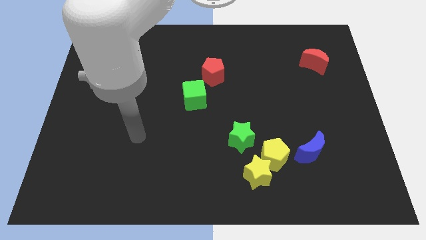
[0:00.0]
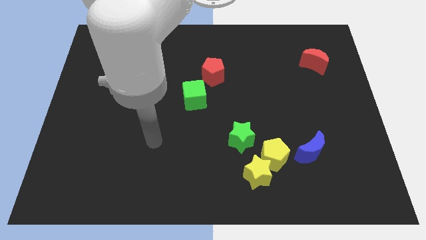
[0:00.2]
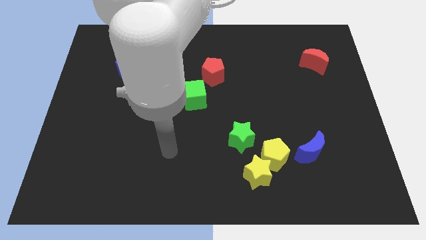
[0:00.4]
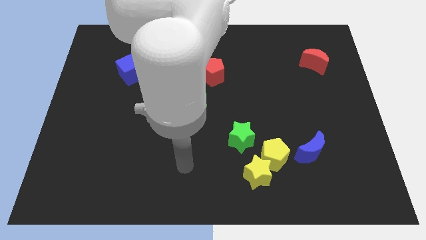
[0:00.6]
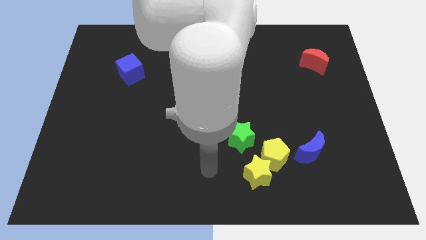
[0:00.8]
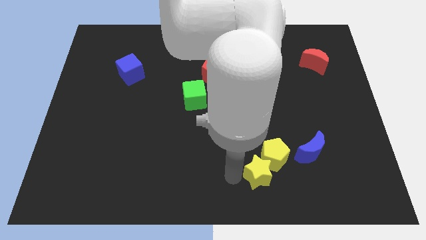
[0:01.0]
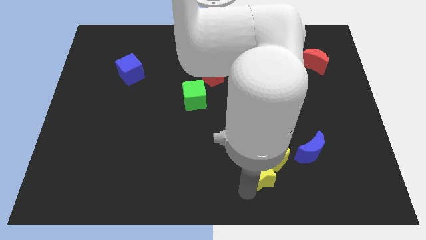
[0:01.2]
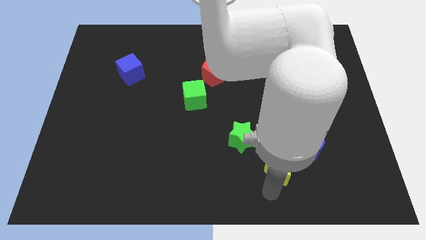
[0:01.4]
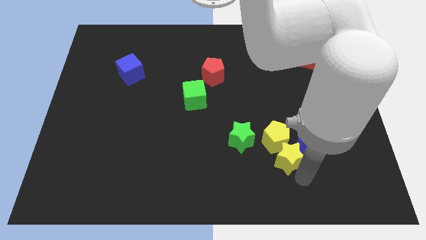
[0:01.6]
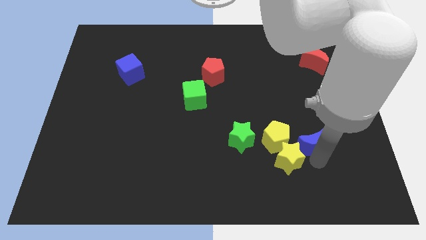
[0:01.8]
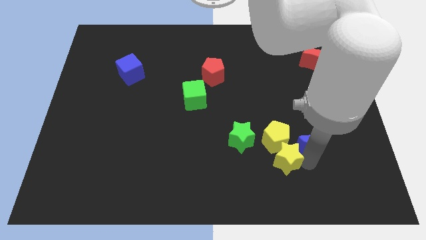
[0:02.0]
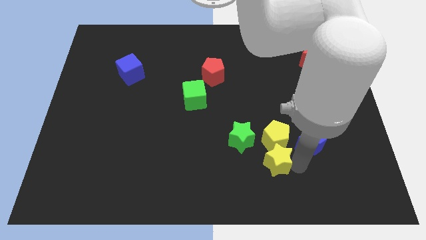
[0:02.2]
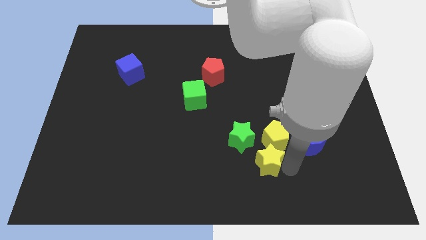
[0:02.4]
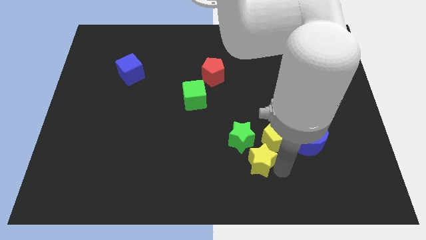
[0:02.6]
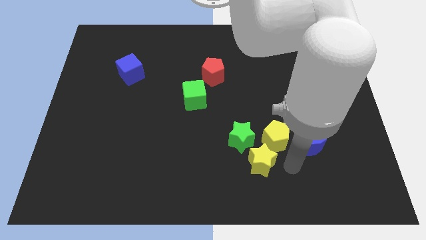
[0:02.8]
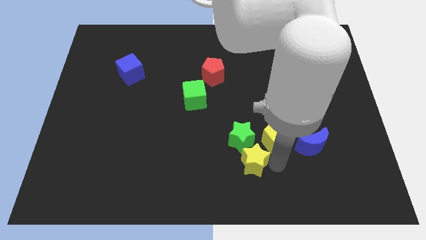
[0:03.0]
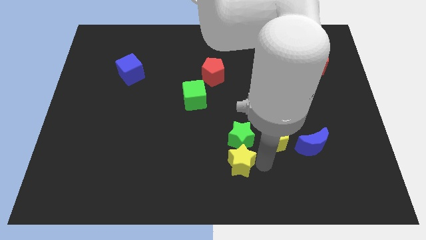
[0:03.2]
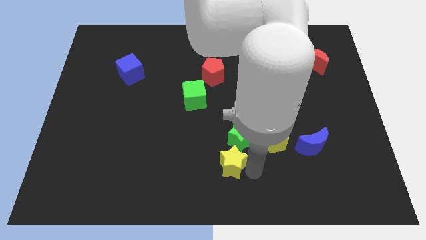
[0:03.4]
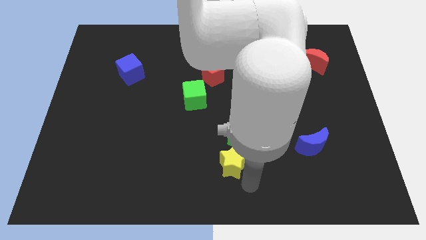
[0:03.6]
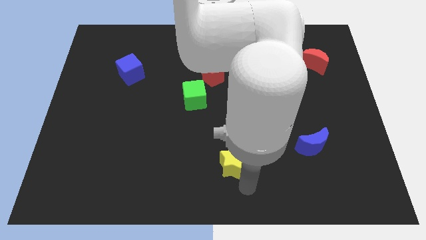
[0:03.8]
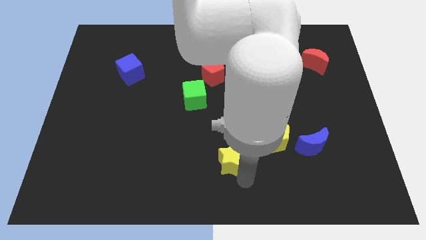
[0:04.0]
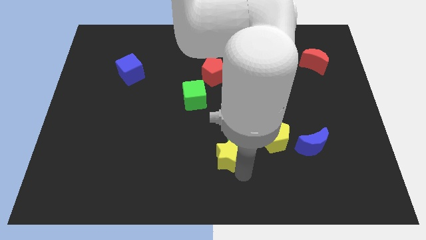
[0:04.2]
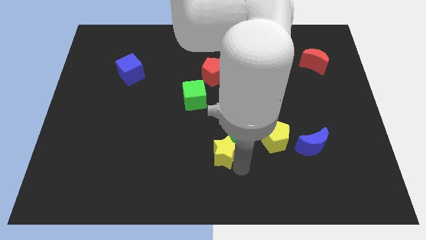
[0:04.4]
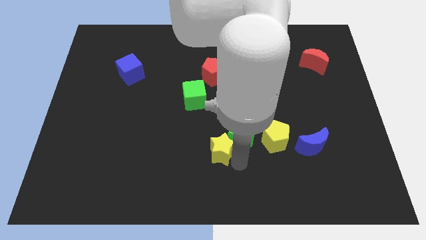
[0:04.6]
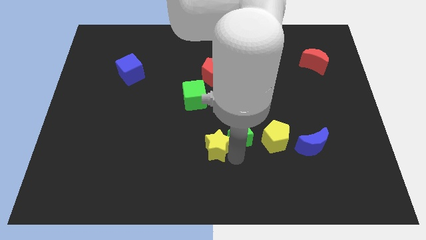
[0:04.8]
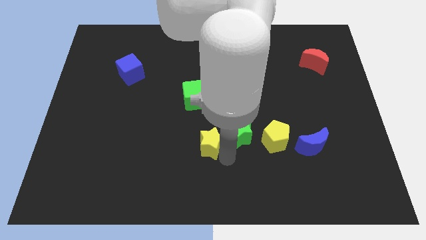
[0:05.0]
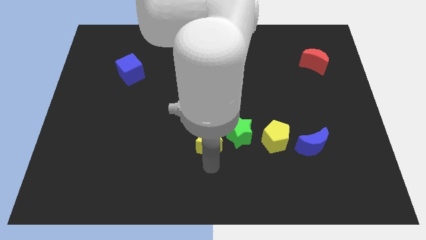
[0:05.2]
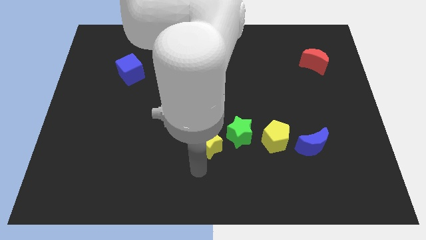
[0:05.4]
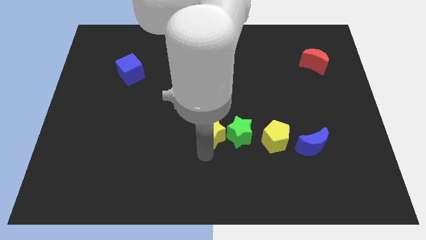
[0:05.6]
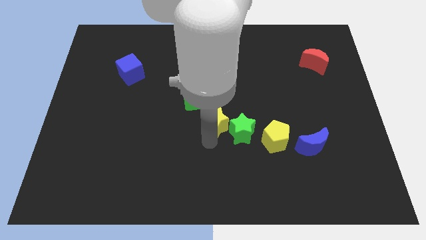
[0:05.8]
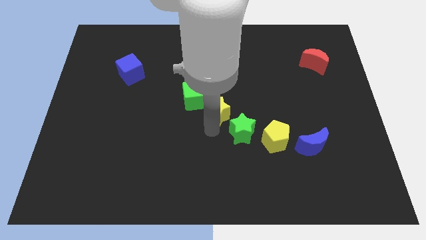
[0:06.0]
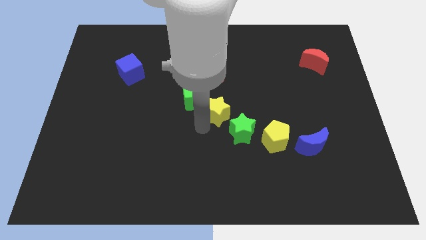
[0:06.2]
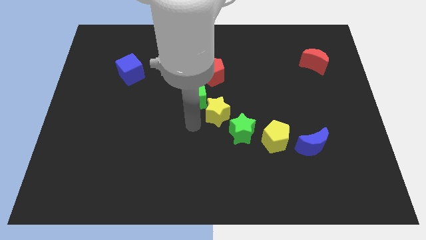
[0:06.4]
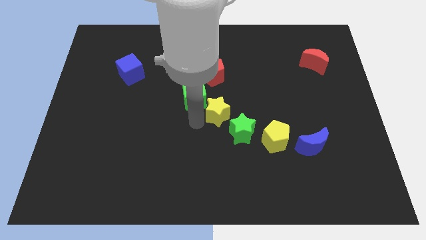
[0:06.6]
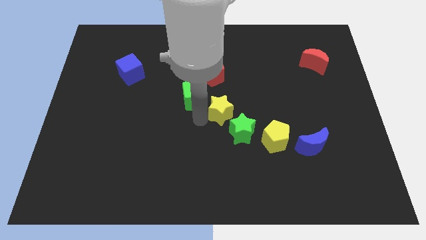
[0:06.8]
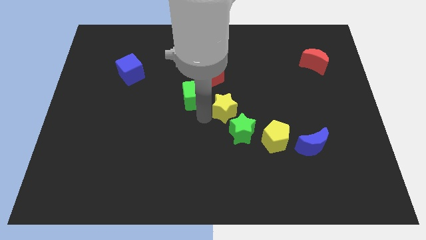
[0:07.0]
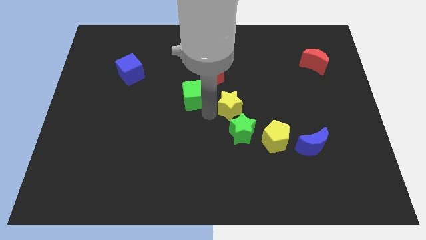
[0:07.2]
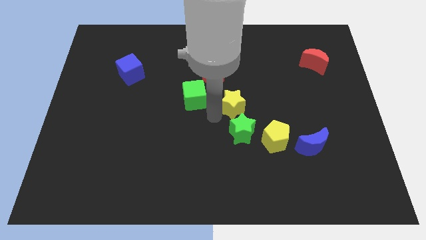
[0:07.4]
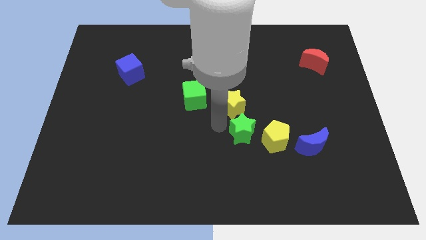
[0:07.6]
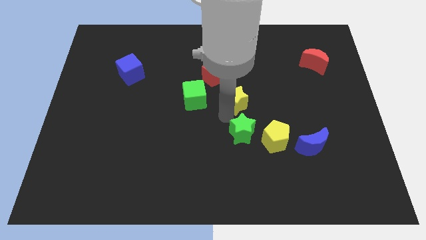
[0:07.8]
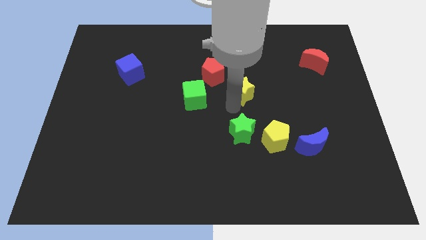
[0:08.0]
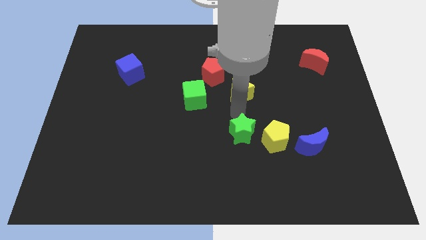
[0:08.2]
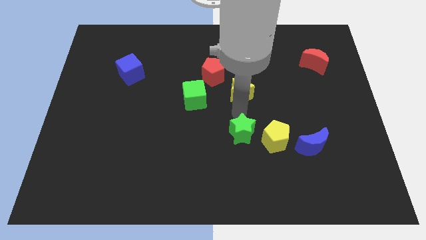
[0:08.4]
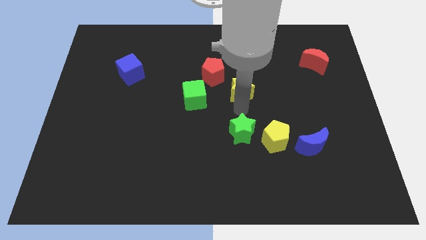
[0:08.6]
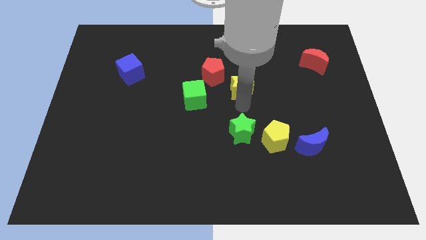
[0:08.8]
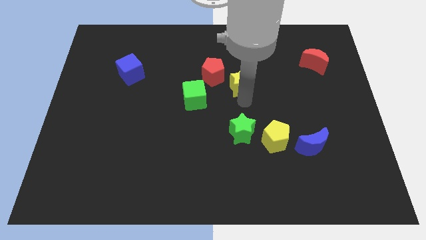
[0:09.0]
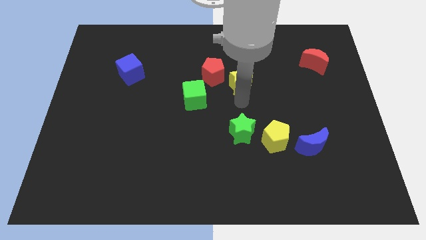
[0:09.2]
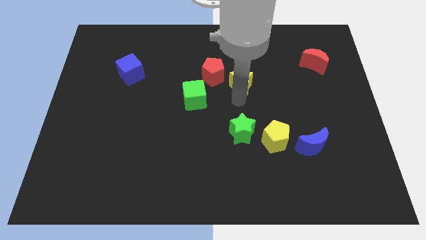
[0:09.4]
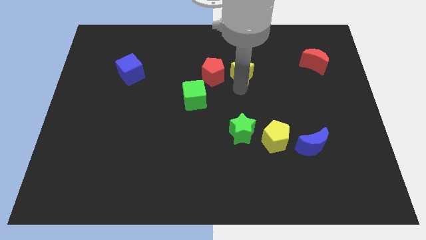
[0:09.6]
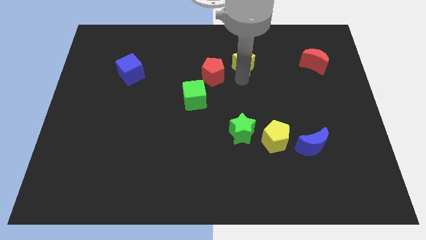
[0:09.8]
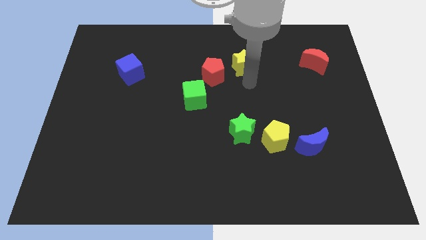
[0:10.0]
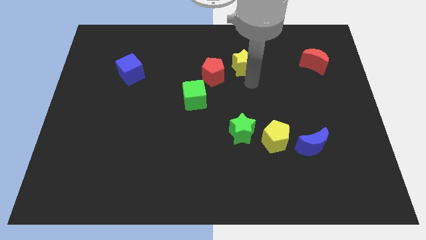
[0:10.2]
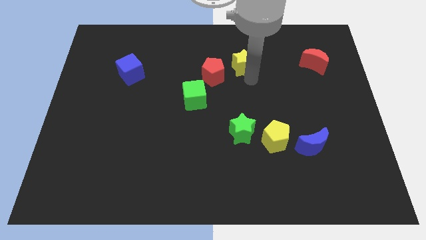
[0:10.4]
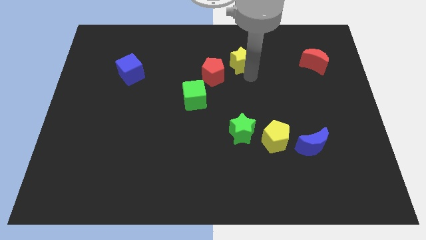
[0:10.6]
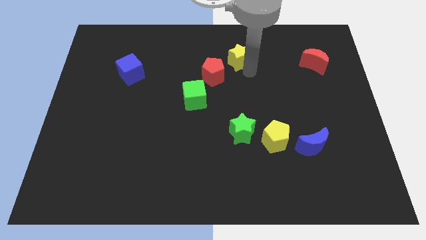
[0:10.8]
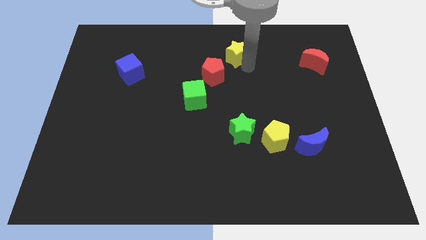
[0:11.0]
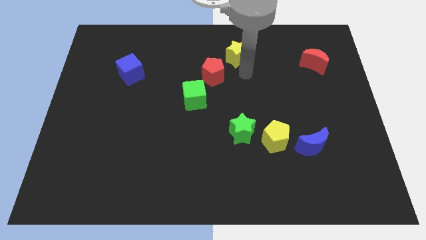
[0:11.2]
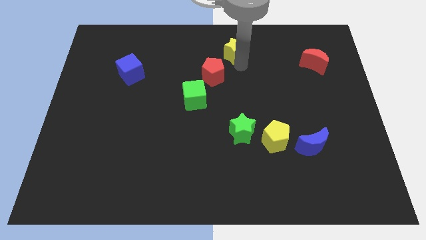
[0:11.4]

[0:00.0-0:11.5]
put the yellow star to the top
